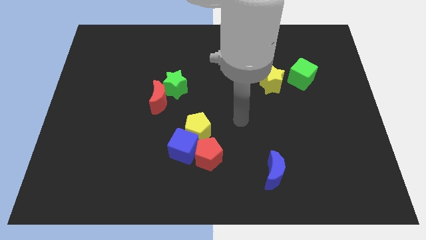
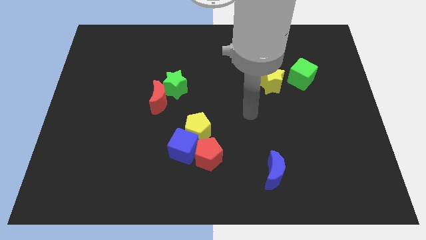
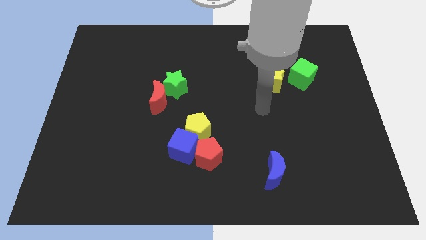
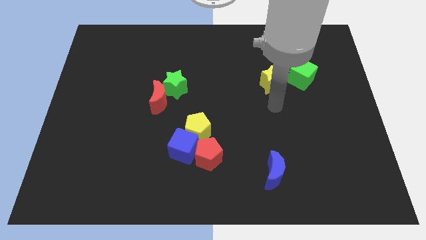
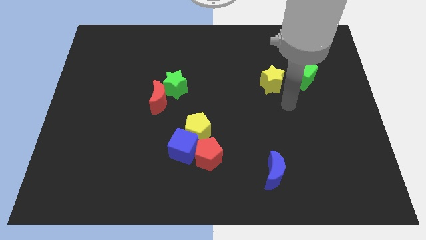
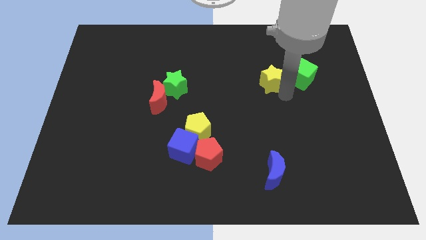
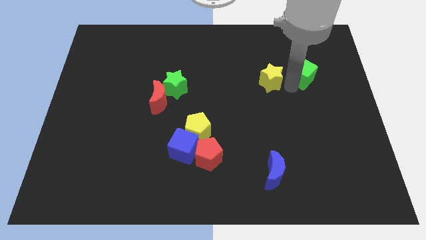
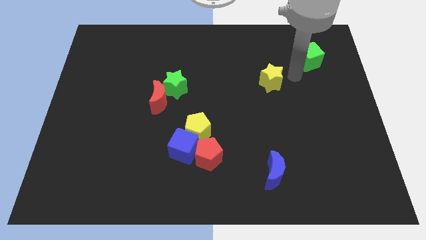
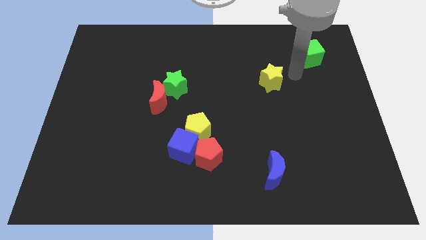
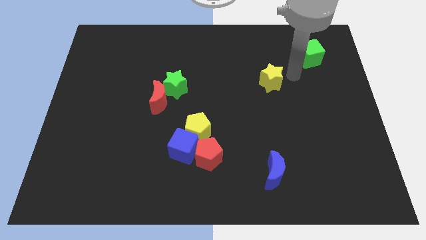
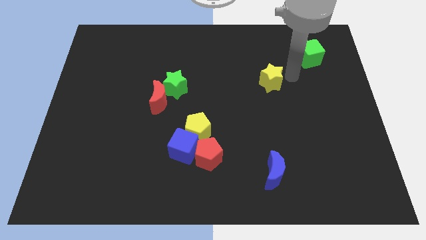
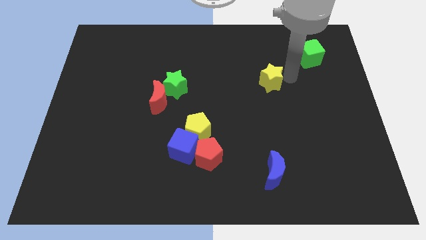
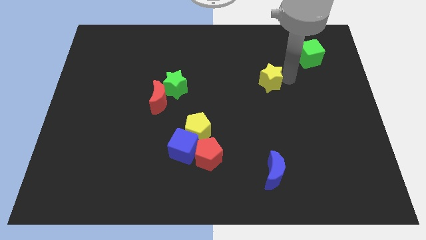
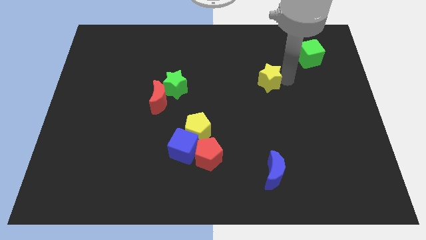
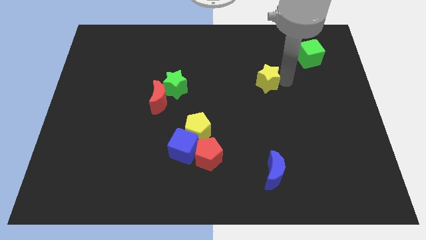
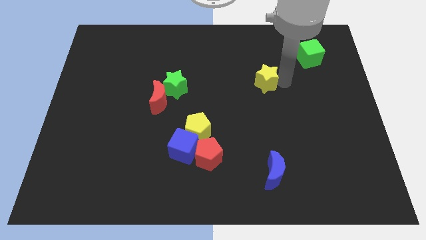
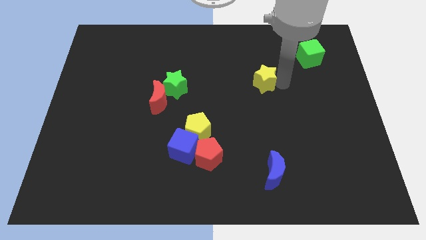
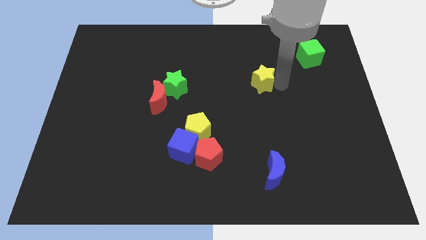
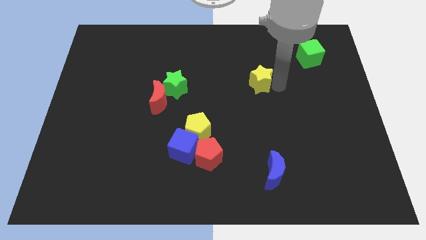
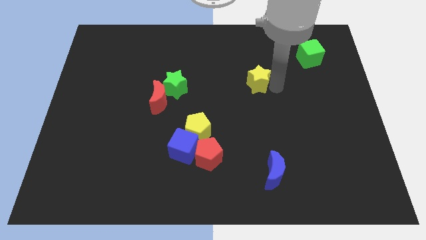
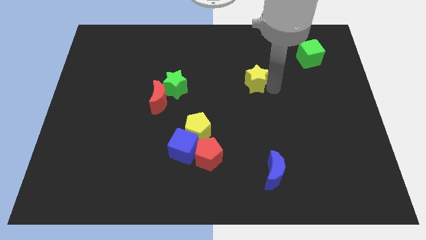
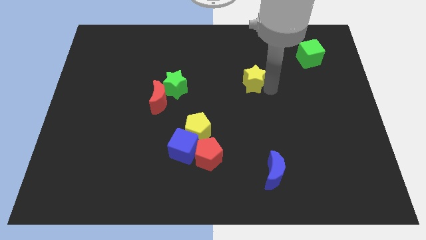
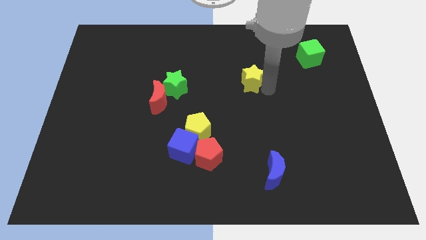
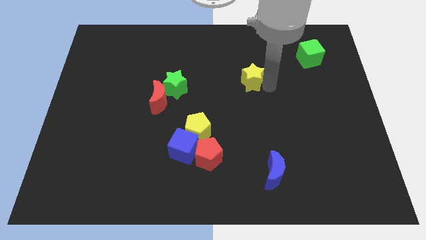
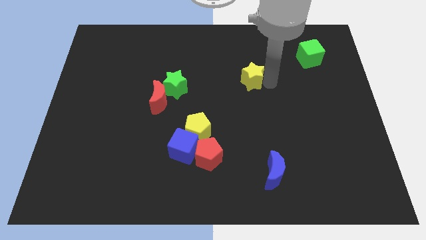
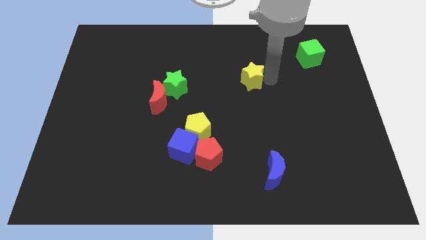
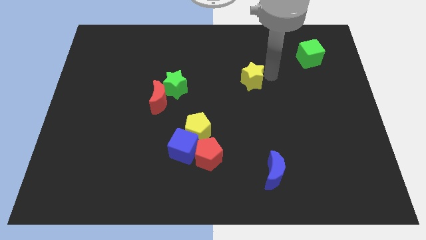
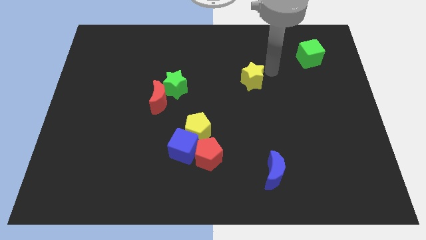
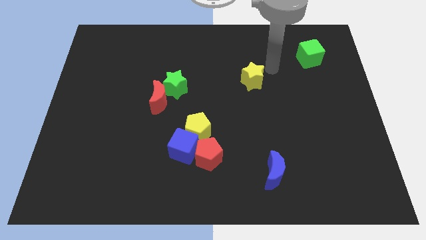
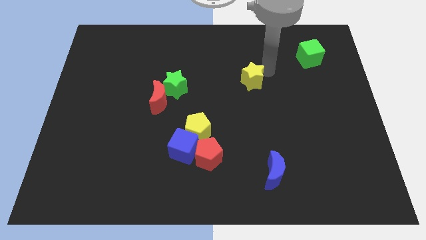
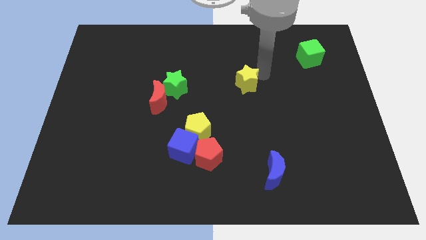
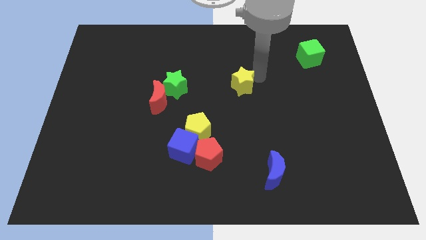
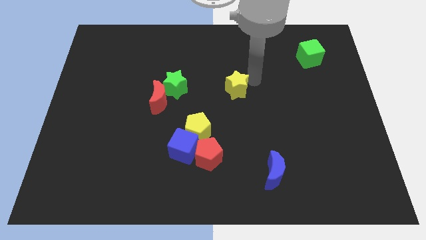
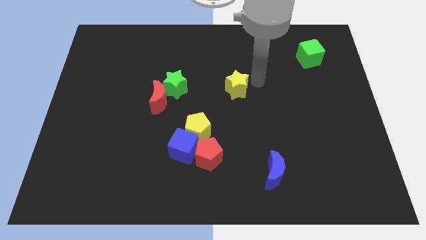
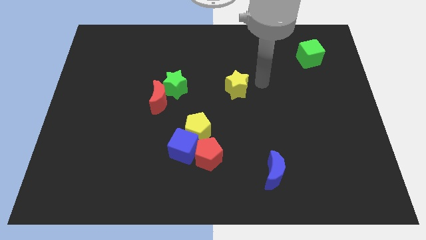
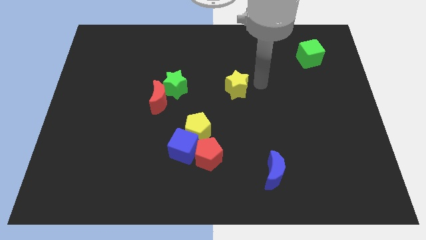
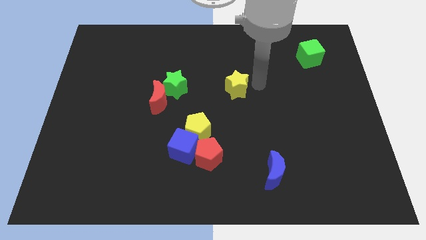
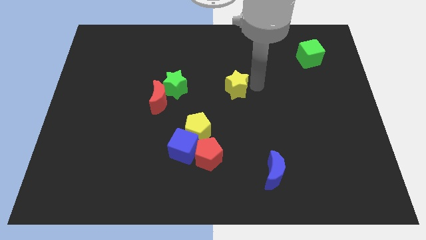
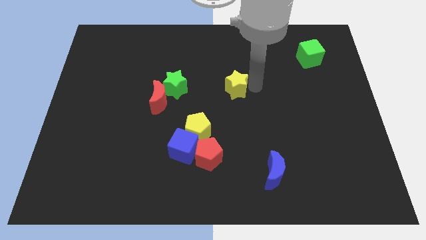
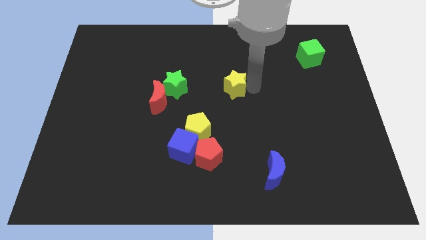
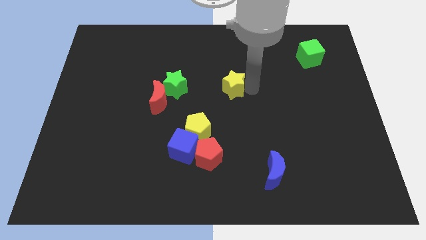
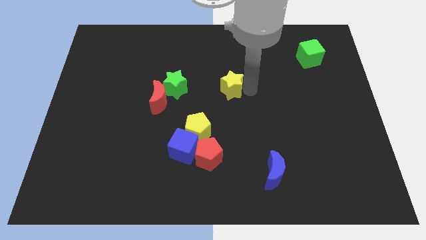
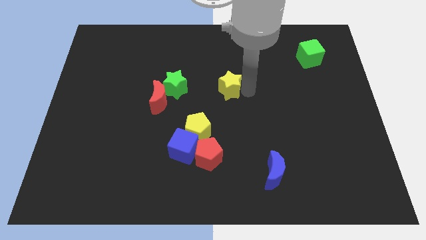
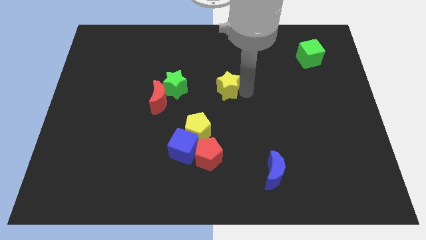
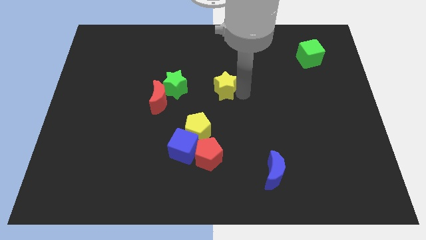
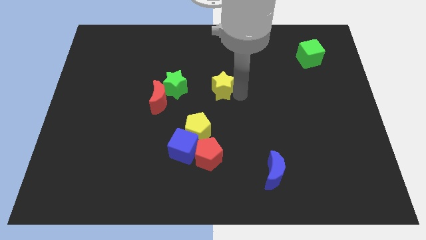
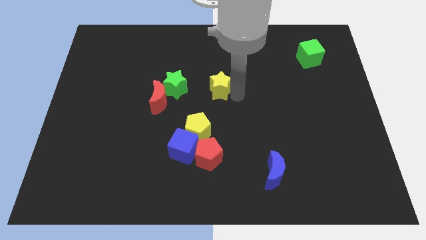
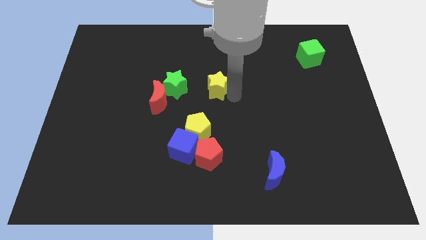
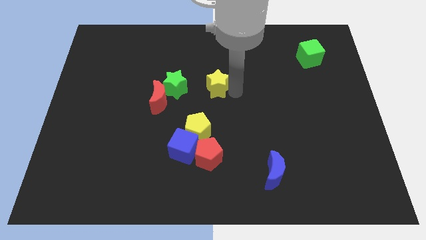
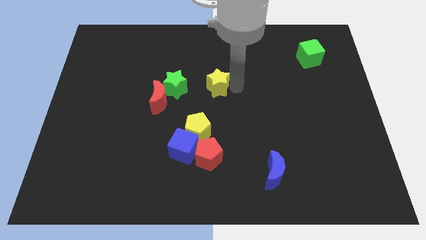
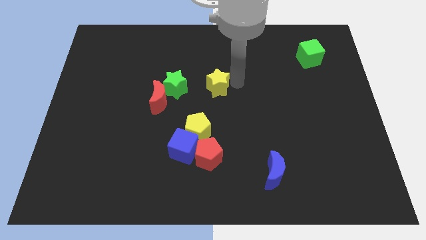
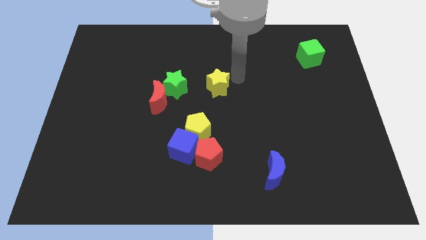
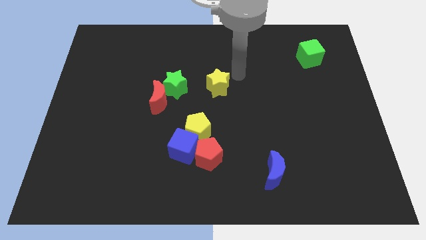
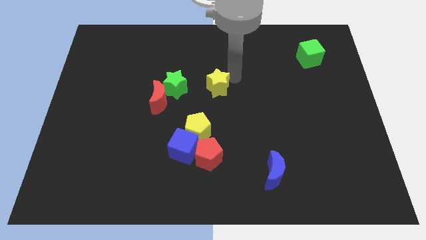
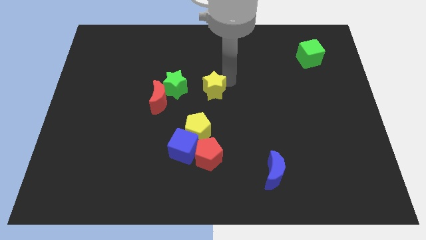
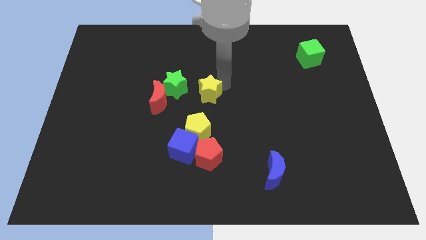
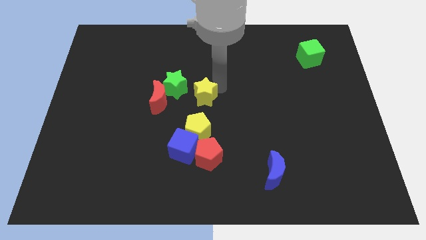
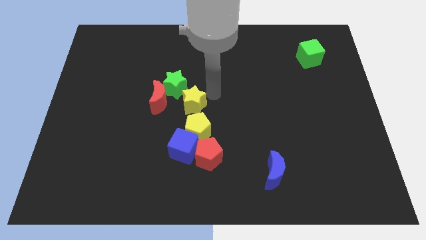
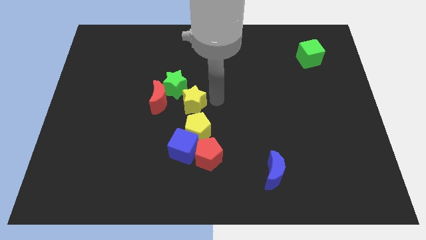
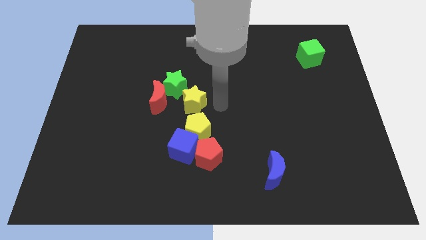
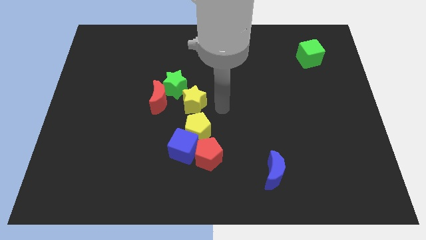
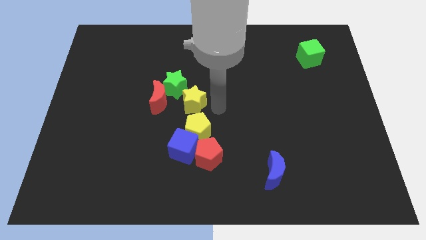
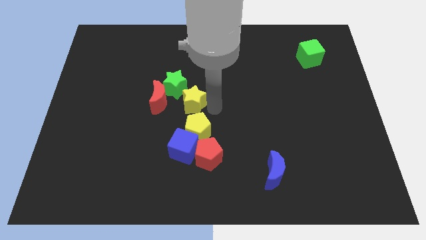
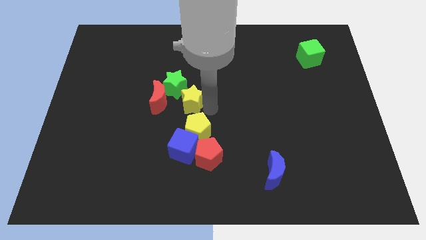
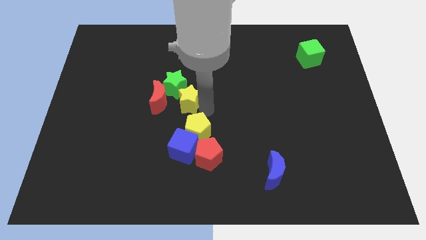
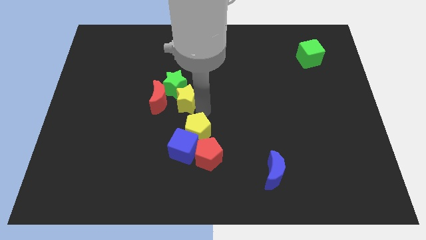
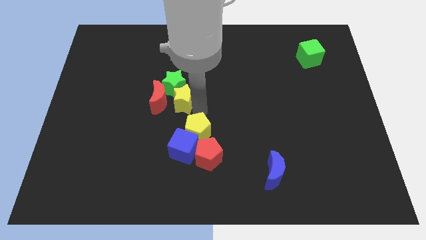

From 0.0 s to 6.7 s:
push the yellow star towards the red moon

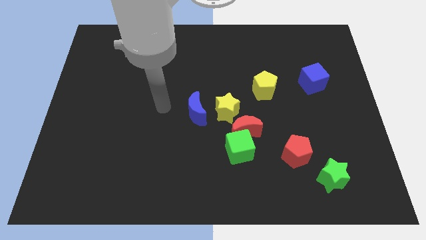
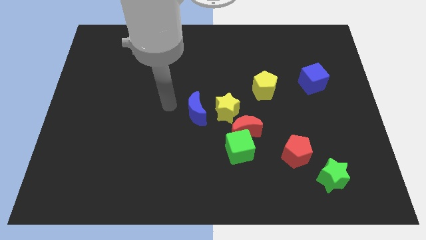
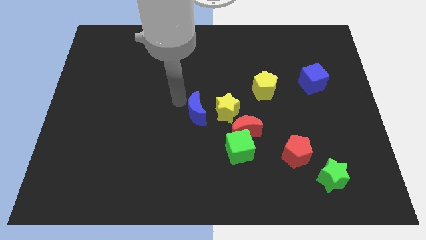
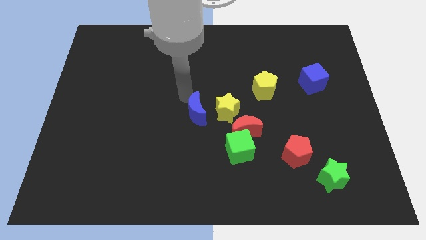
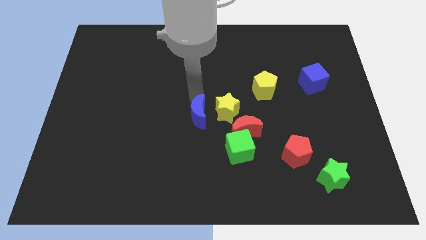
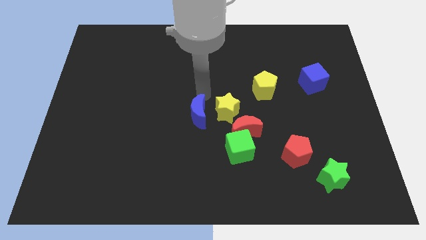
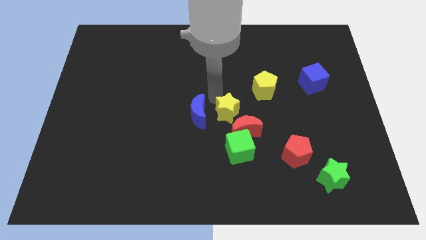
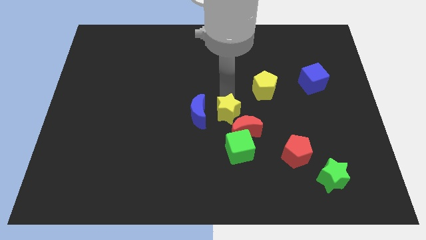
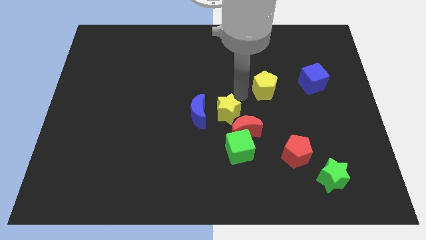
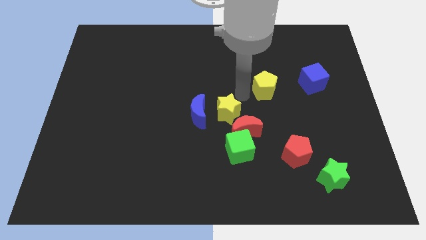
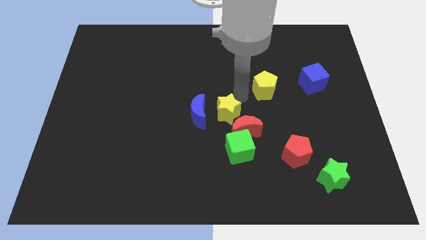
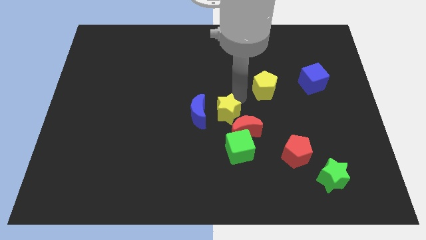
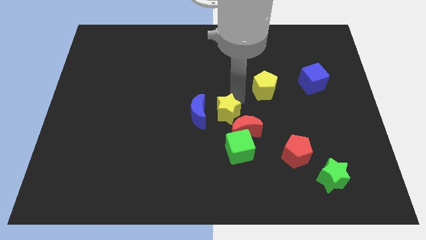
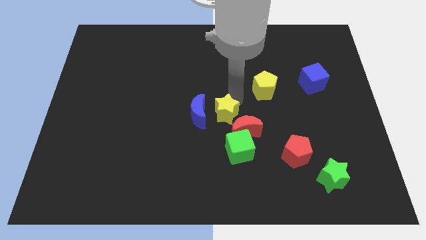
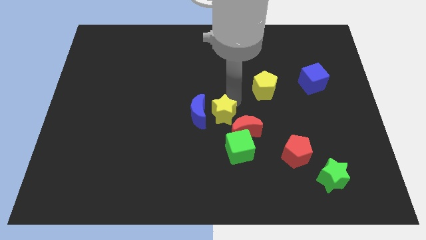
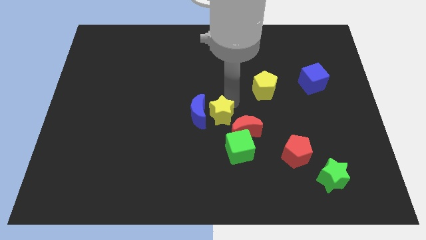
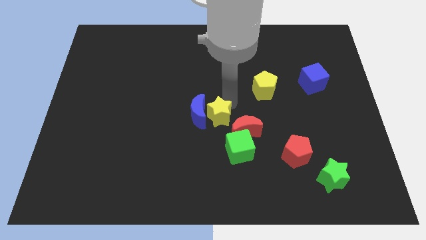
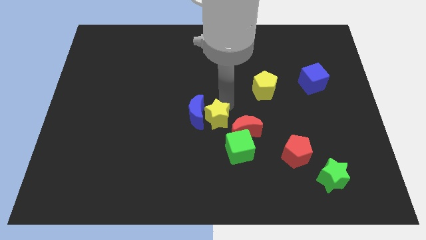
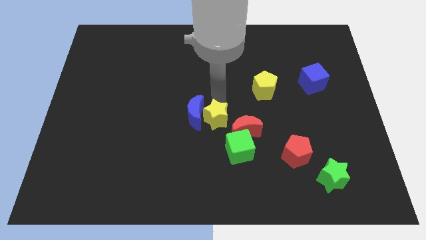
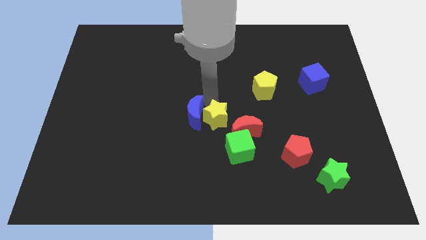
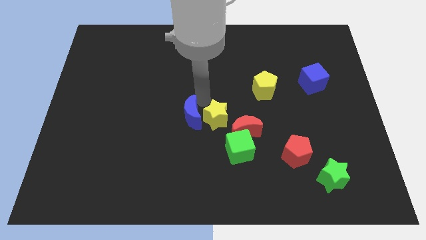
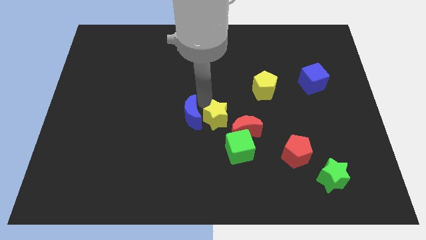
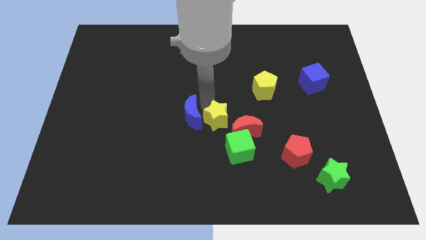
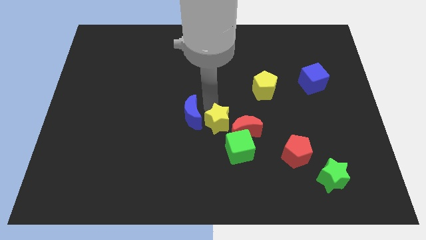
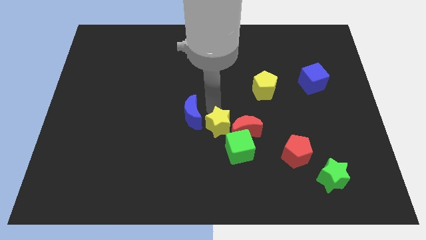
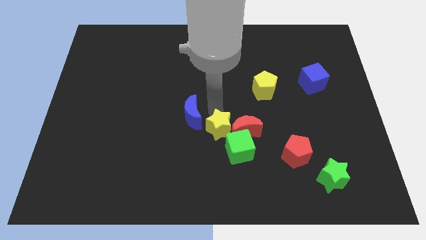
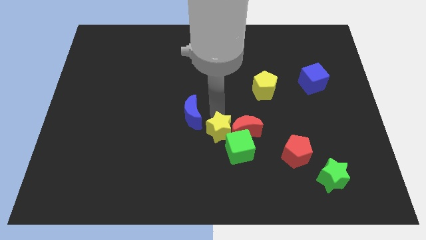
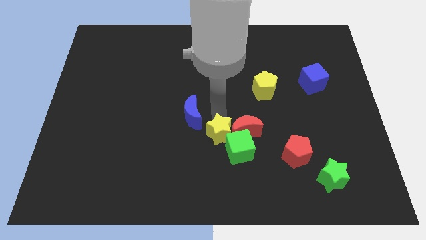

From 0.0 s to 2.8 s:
slide the yellow star next to the green cube
